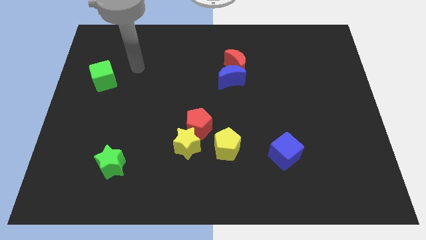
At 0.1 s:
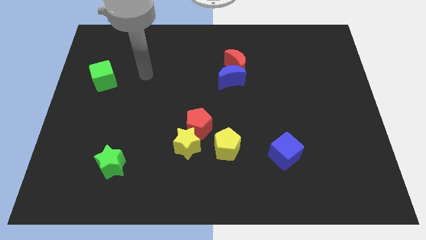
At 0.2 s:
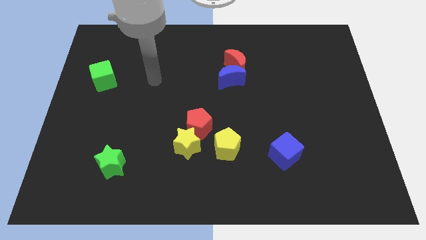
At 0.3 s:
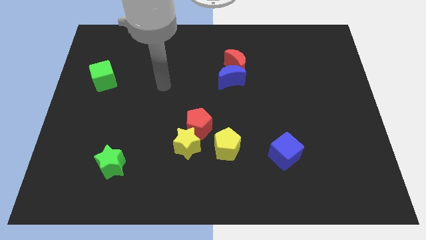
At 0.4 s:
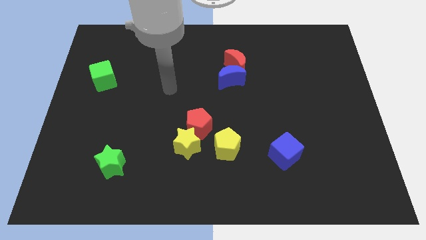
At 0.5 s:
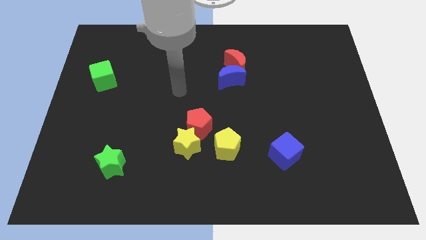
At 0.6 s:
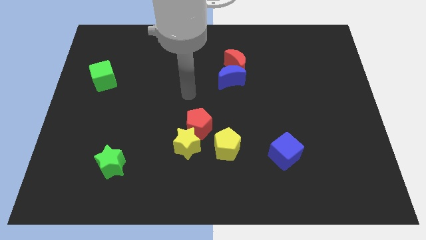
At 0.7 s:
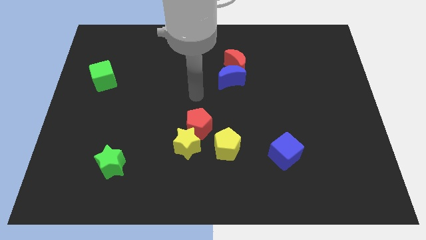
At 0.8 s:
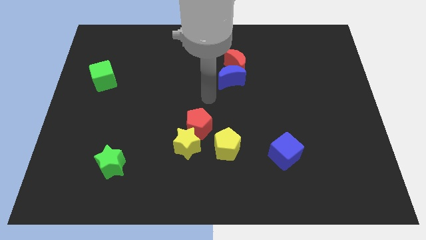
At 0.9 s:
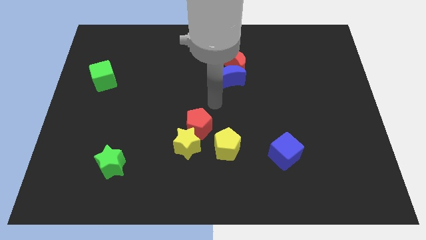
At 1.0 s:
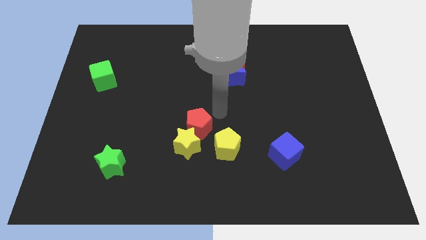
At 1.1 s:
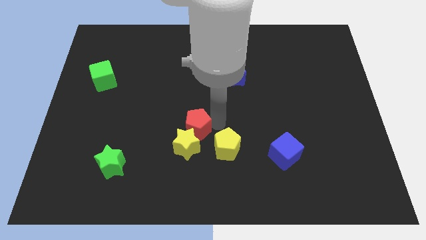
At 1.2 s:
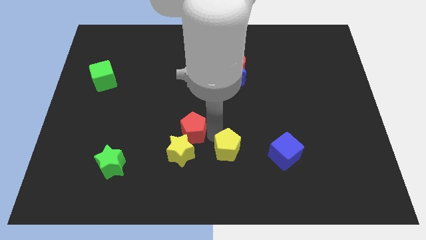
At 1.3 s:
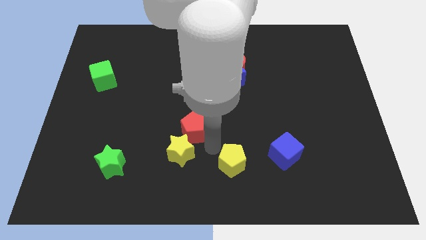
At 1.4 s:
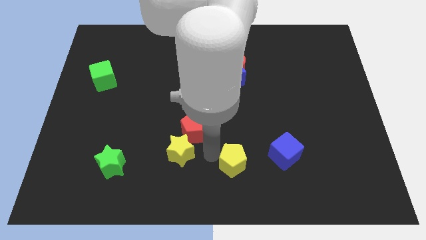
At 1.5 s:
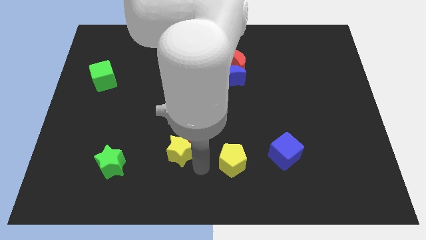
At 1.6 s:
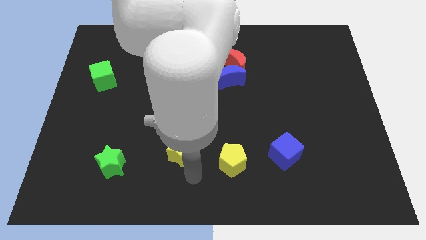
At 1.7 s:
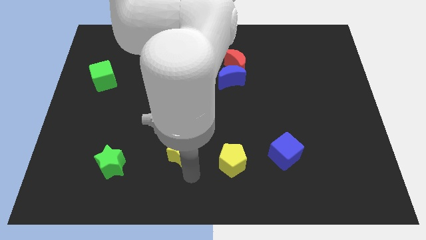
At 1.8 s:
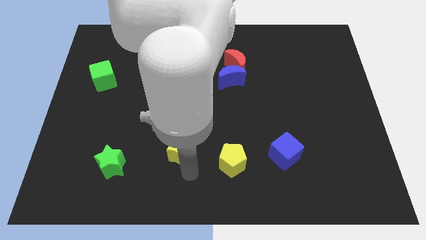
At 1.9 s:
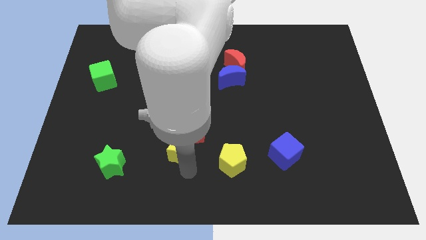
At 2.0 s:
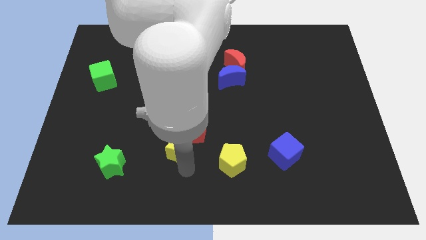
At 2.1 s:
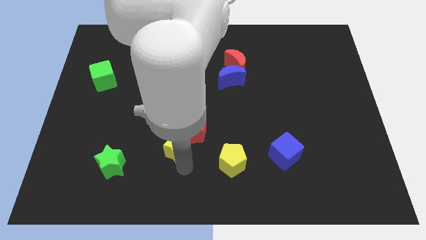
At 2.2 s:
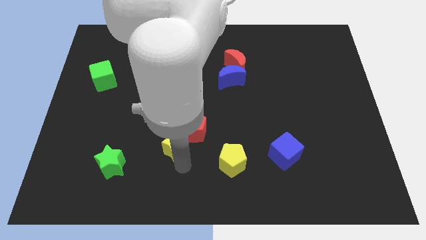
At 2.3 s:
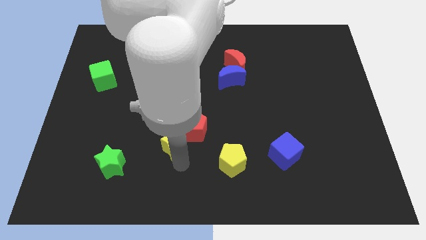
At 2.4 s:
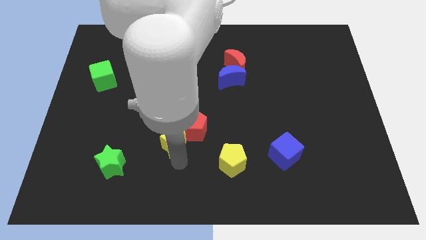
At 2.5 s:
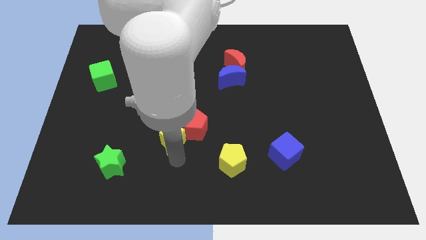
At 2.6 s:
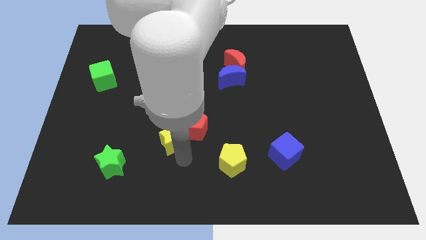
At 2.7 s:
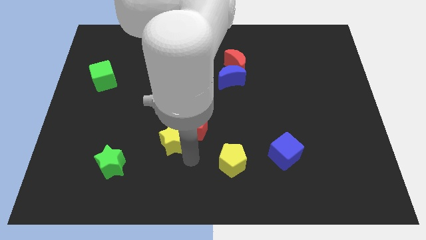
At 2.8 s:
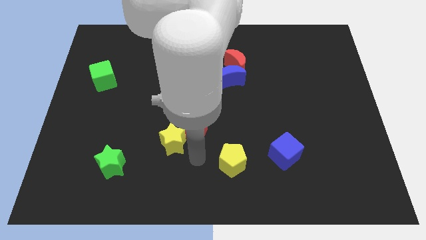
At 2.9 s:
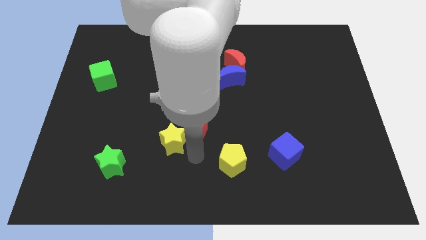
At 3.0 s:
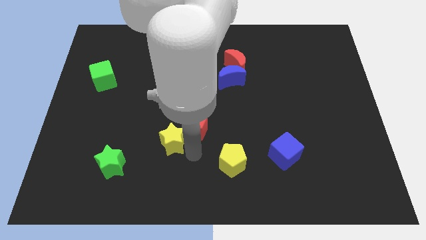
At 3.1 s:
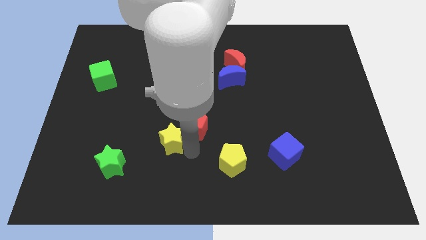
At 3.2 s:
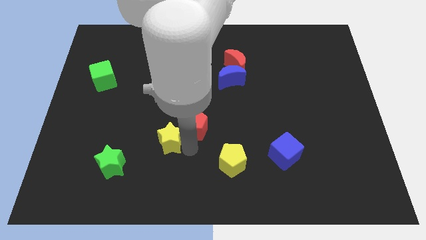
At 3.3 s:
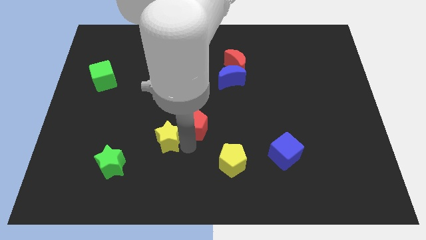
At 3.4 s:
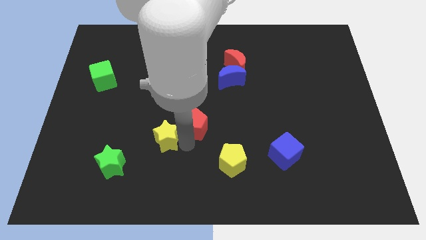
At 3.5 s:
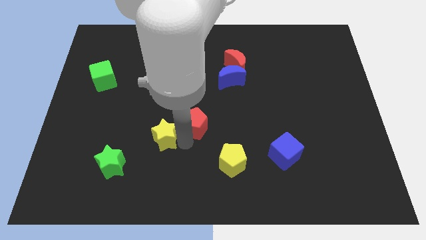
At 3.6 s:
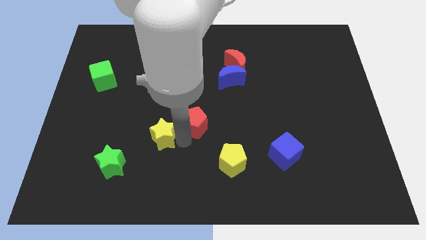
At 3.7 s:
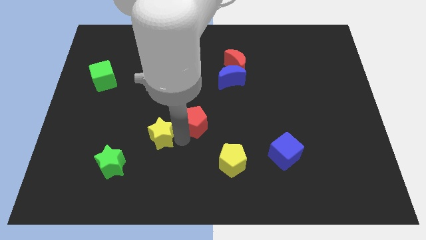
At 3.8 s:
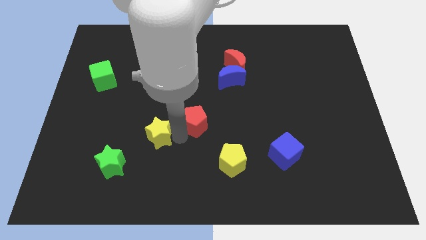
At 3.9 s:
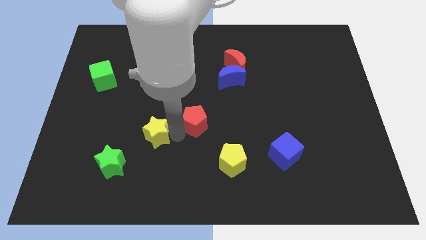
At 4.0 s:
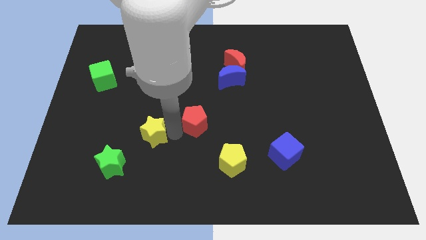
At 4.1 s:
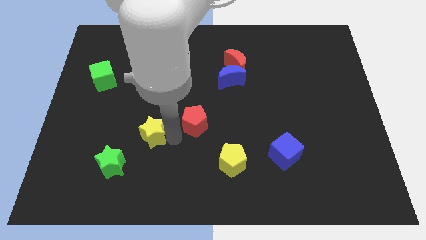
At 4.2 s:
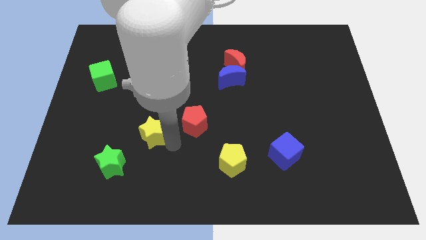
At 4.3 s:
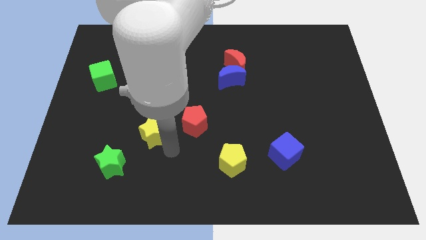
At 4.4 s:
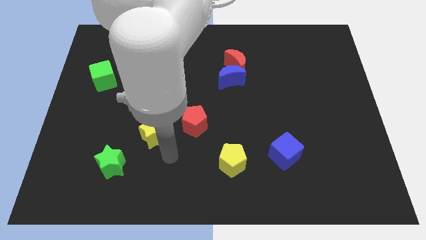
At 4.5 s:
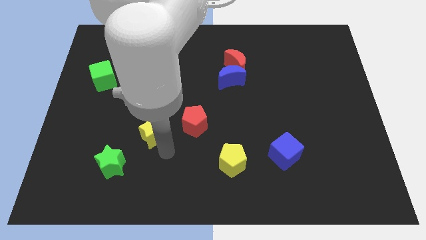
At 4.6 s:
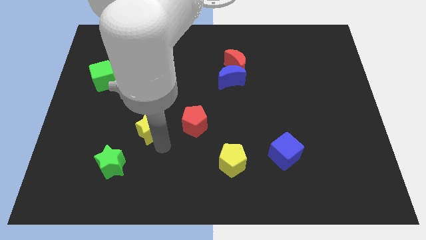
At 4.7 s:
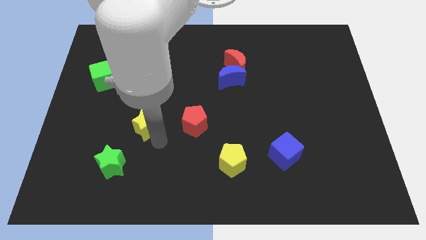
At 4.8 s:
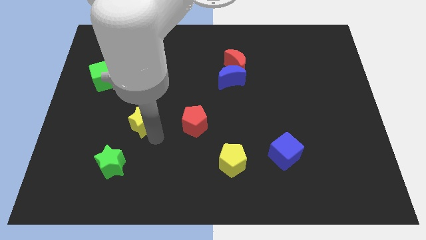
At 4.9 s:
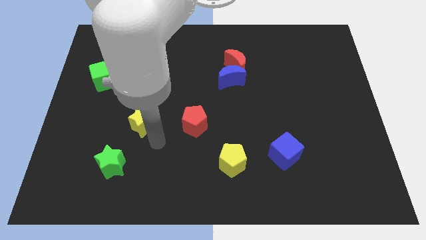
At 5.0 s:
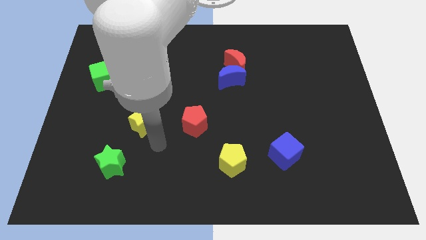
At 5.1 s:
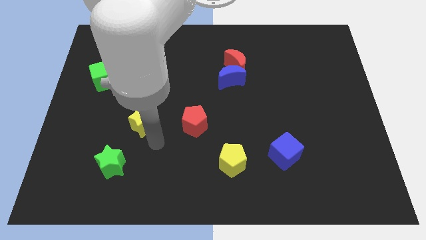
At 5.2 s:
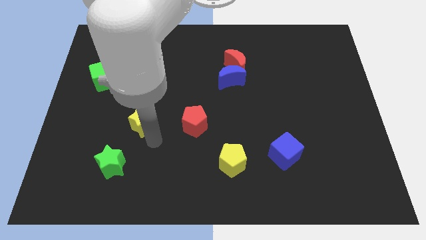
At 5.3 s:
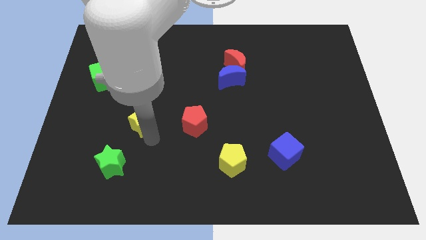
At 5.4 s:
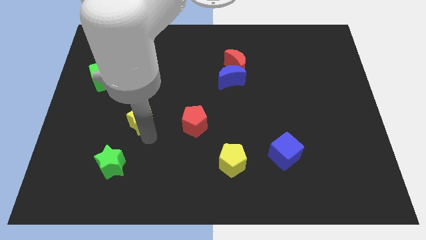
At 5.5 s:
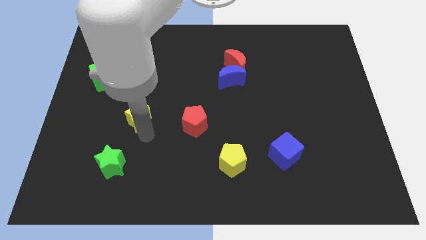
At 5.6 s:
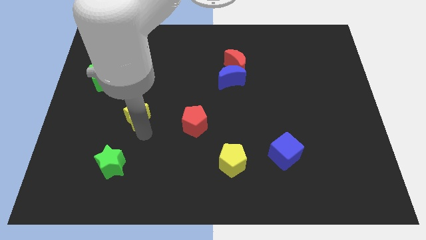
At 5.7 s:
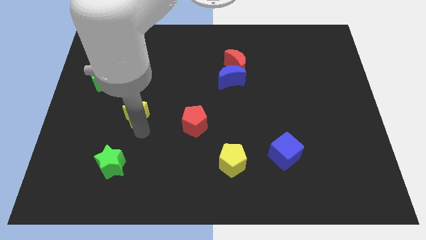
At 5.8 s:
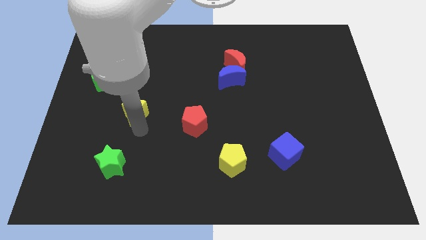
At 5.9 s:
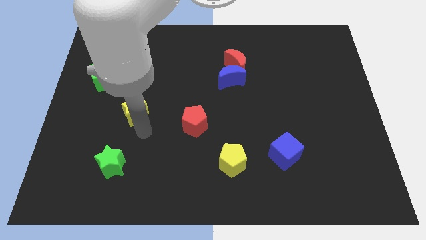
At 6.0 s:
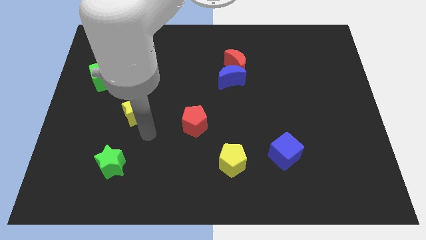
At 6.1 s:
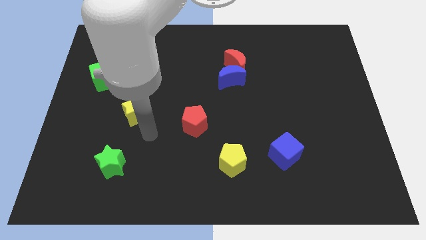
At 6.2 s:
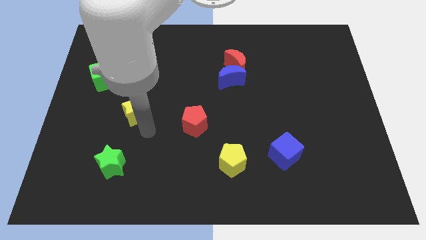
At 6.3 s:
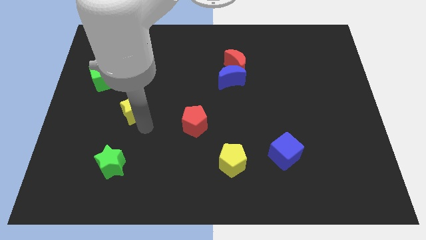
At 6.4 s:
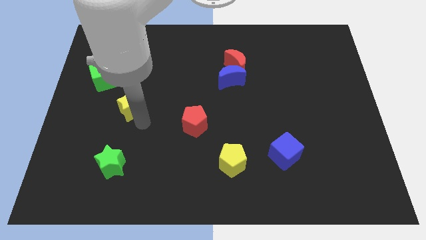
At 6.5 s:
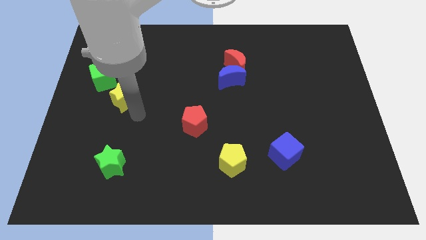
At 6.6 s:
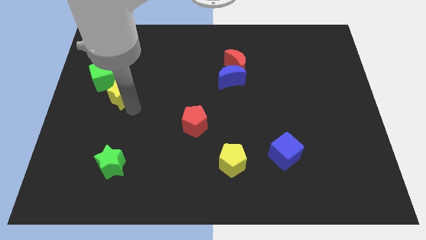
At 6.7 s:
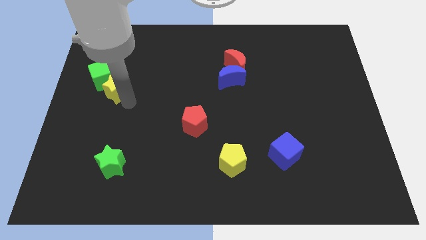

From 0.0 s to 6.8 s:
move the yellow star close to the green cube

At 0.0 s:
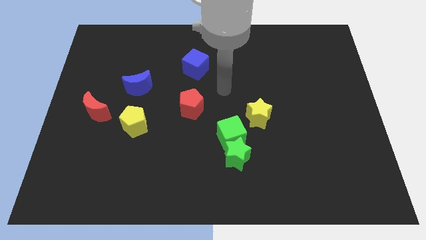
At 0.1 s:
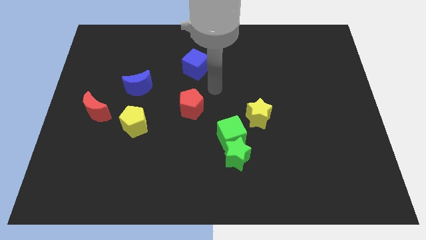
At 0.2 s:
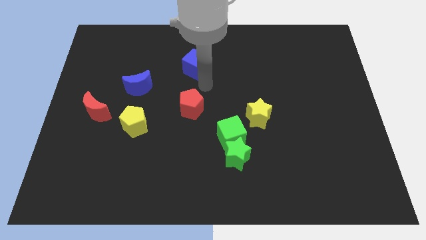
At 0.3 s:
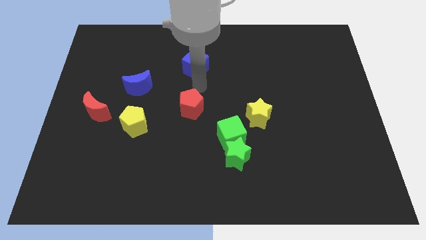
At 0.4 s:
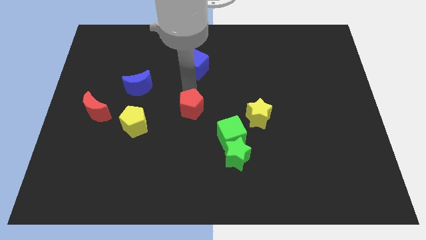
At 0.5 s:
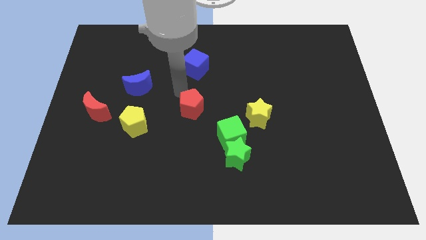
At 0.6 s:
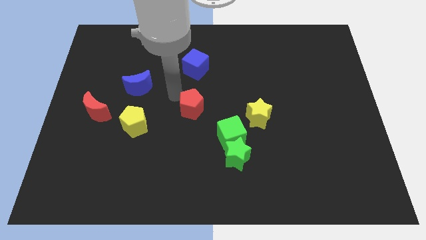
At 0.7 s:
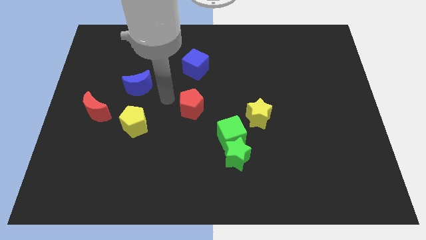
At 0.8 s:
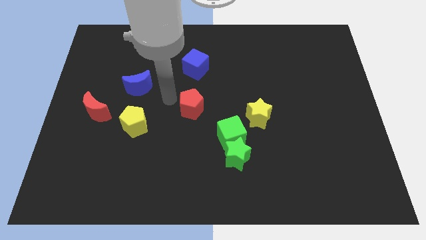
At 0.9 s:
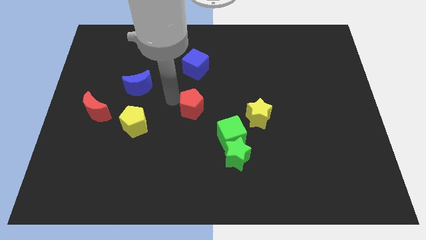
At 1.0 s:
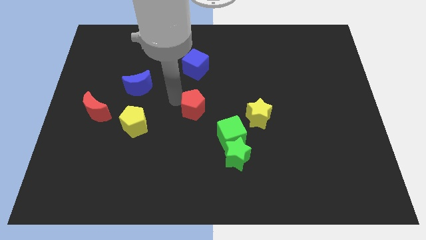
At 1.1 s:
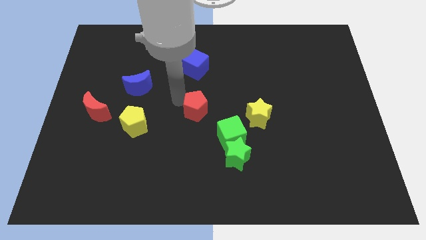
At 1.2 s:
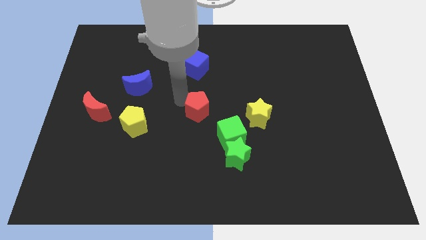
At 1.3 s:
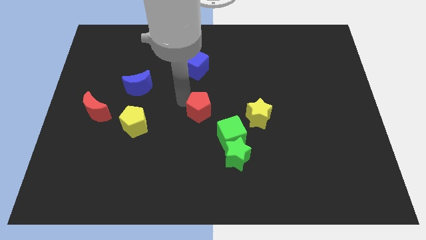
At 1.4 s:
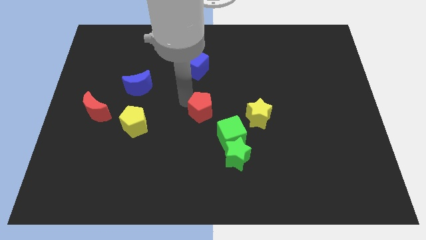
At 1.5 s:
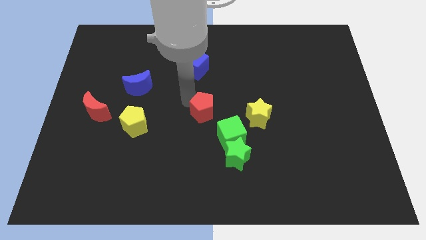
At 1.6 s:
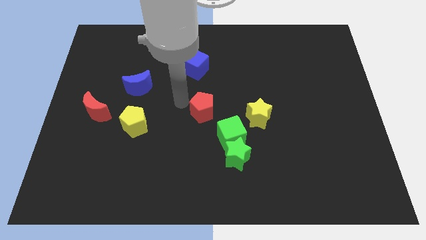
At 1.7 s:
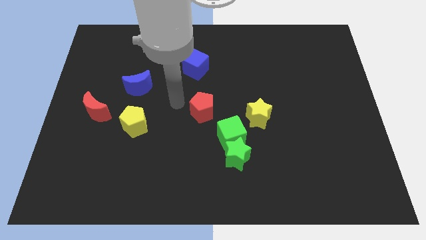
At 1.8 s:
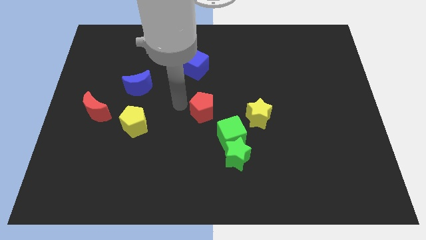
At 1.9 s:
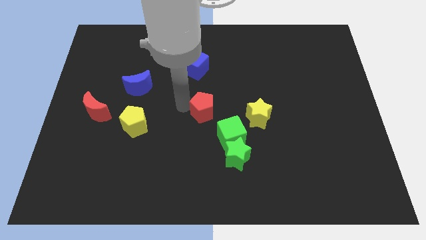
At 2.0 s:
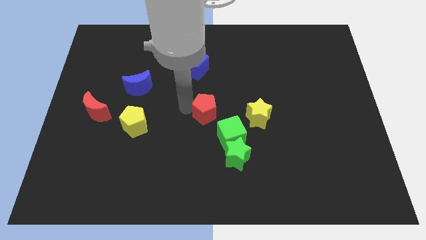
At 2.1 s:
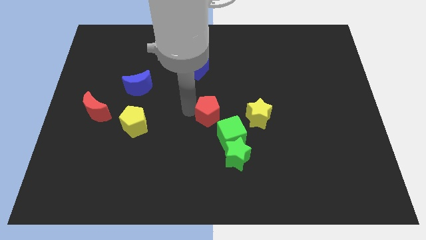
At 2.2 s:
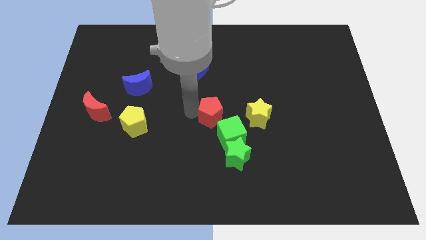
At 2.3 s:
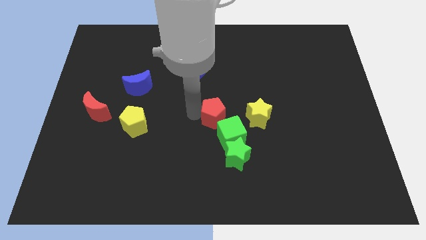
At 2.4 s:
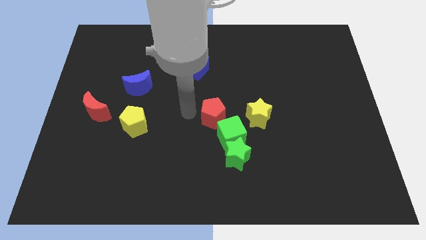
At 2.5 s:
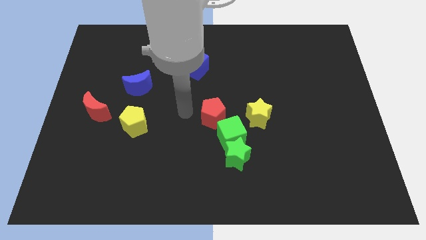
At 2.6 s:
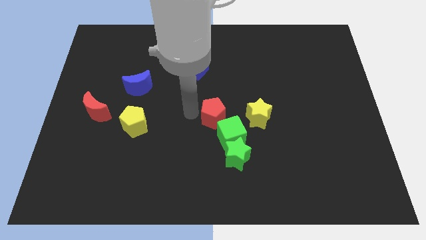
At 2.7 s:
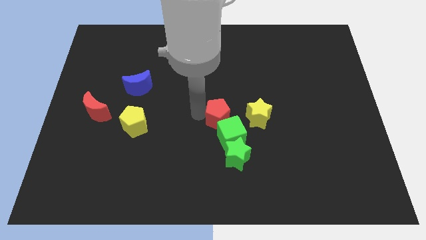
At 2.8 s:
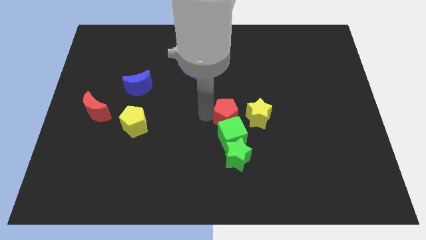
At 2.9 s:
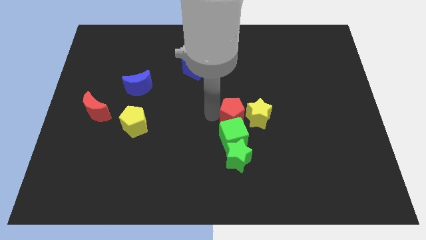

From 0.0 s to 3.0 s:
put the red pentagon towards the yellow star
